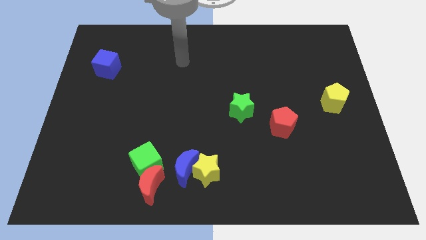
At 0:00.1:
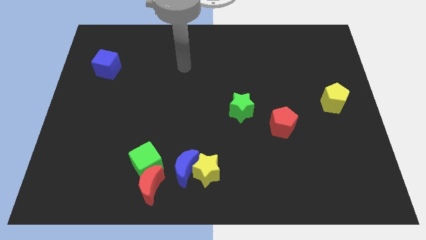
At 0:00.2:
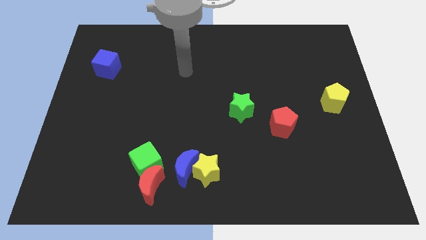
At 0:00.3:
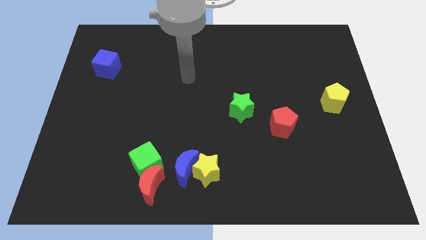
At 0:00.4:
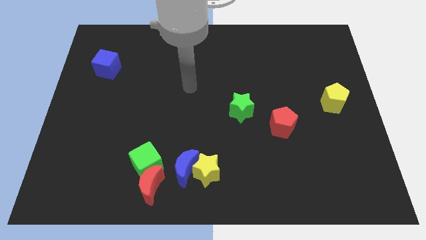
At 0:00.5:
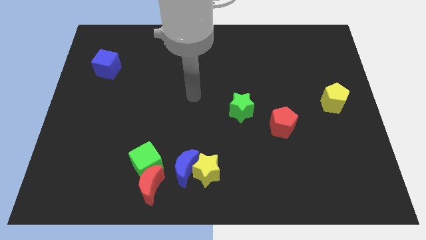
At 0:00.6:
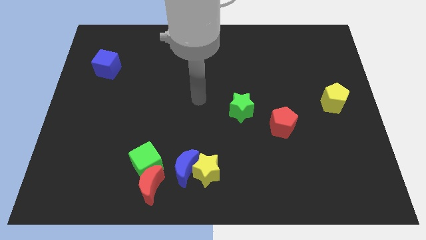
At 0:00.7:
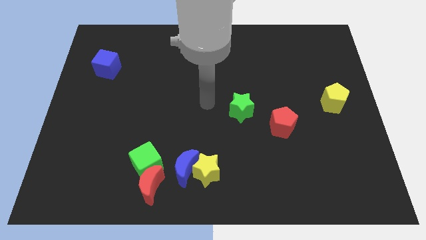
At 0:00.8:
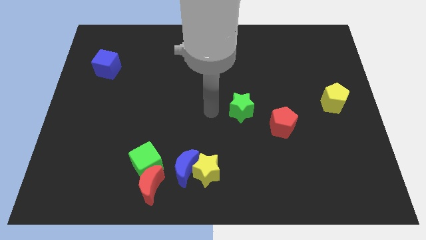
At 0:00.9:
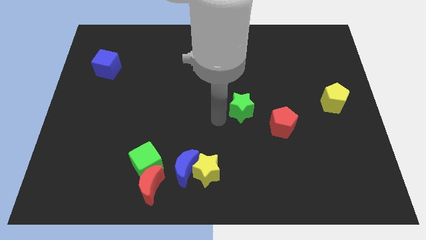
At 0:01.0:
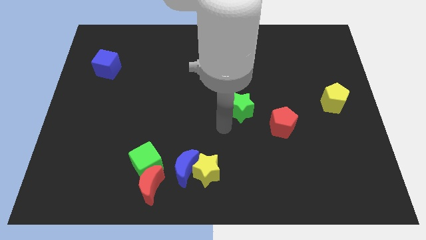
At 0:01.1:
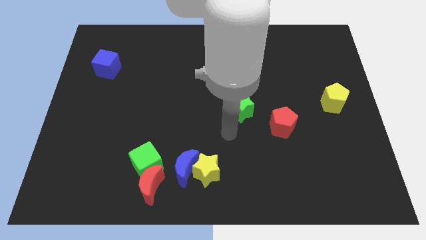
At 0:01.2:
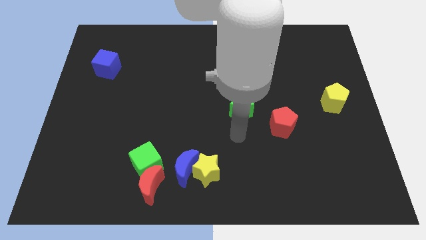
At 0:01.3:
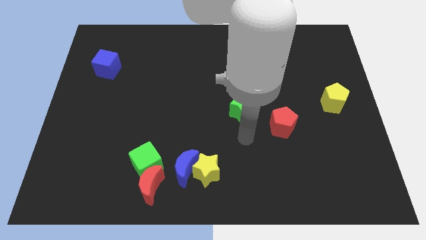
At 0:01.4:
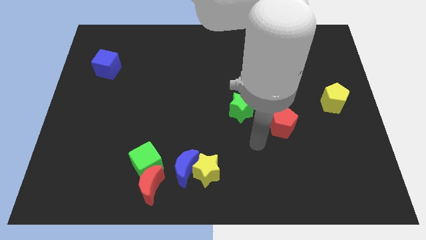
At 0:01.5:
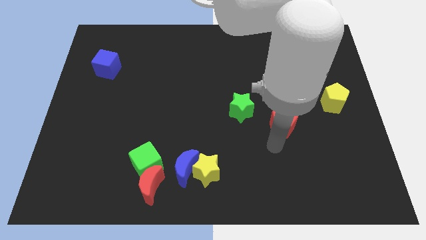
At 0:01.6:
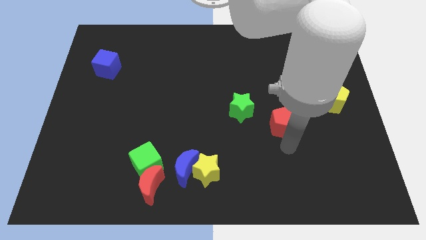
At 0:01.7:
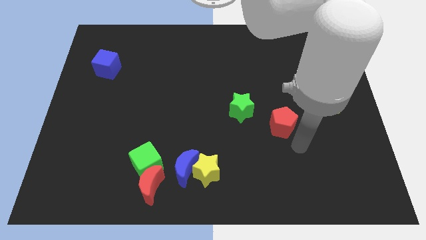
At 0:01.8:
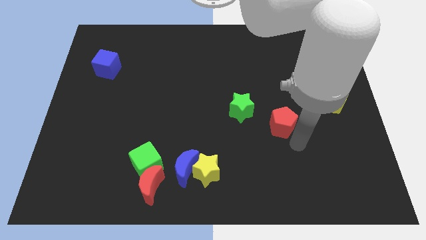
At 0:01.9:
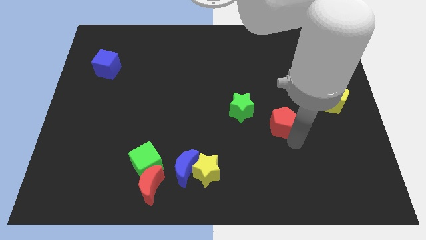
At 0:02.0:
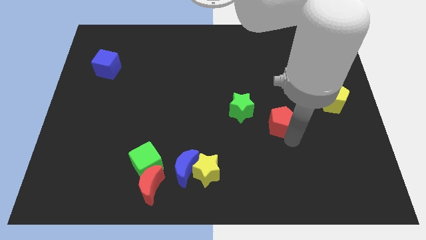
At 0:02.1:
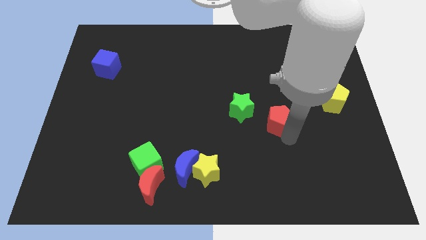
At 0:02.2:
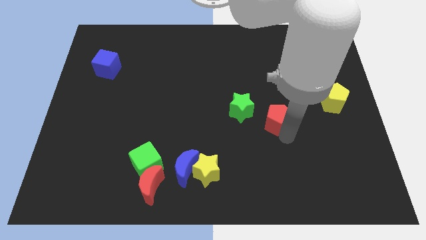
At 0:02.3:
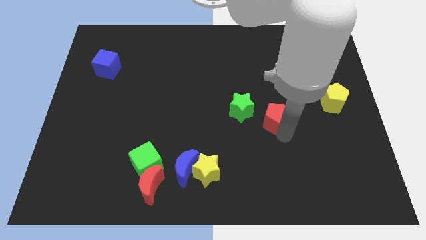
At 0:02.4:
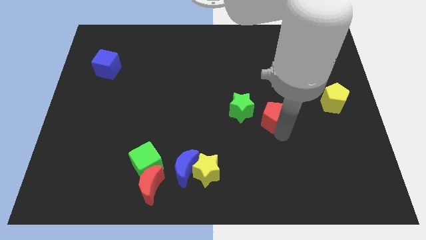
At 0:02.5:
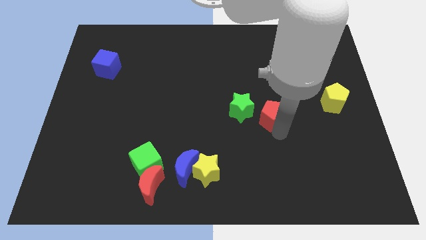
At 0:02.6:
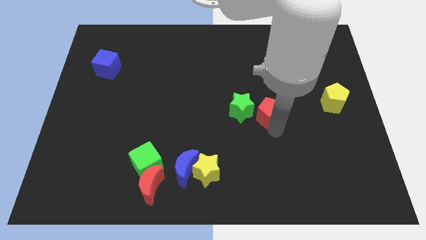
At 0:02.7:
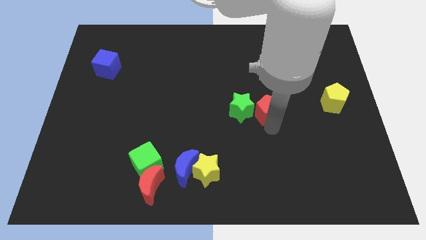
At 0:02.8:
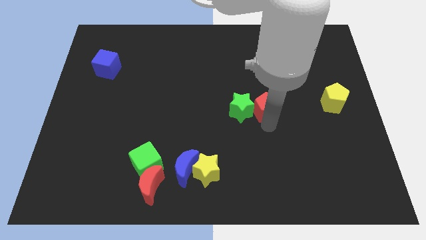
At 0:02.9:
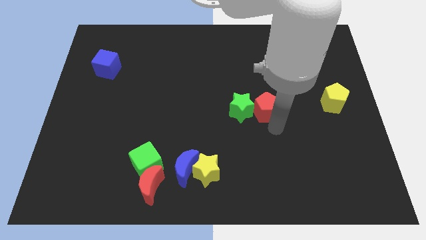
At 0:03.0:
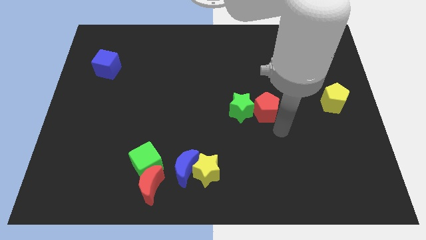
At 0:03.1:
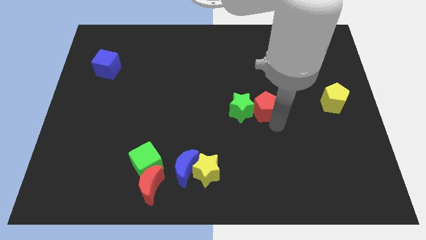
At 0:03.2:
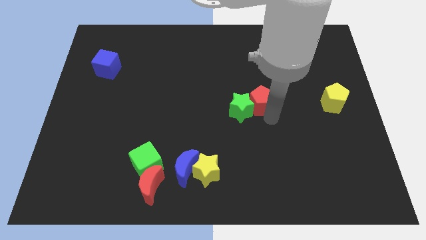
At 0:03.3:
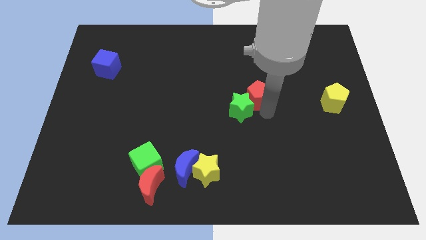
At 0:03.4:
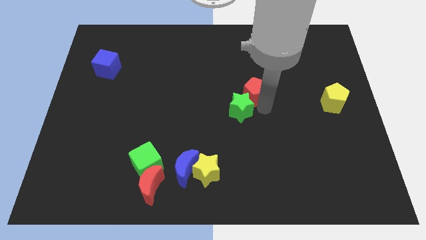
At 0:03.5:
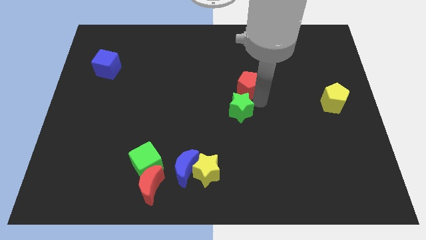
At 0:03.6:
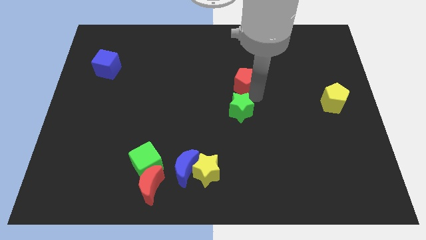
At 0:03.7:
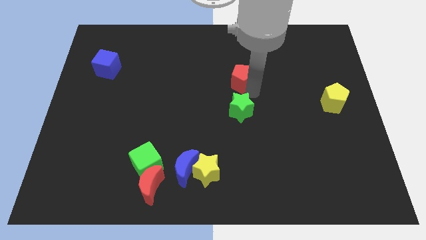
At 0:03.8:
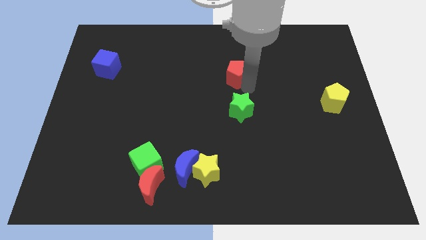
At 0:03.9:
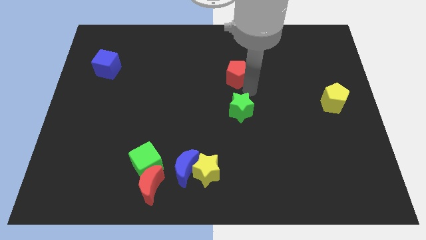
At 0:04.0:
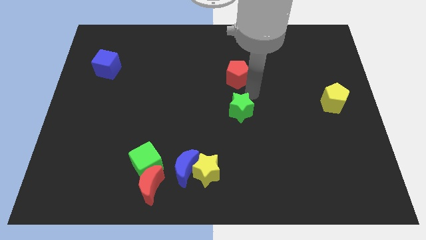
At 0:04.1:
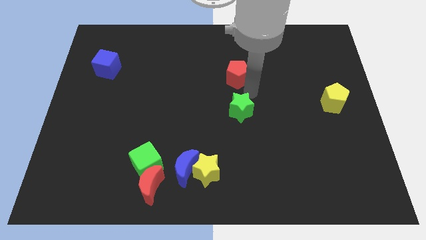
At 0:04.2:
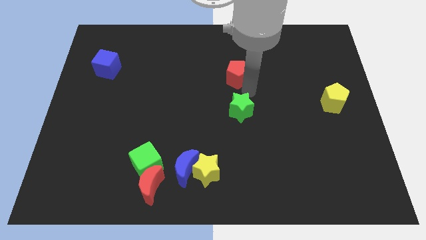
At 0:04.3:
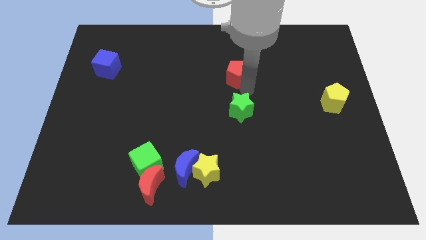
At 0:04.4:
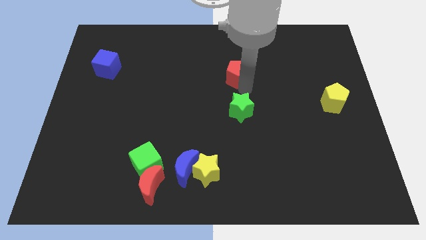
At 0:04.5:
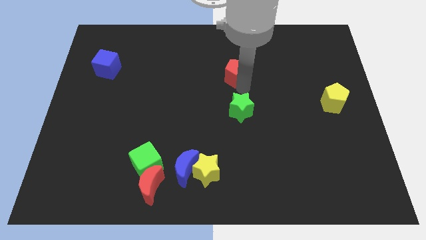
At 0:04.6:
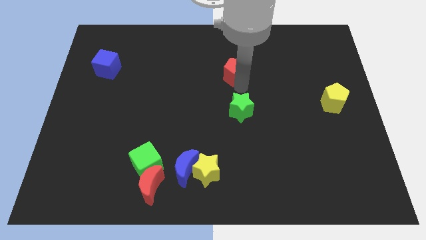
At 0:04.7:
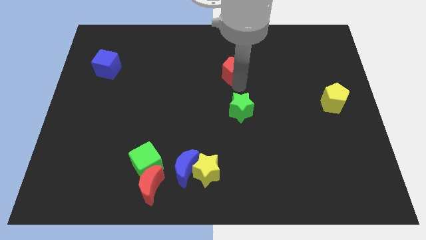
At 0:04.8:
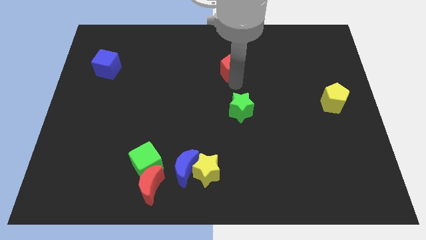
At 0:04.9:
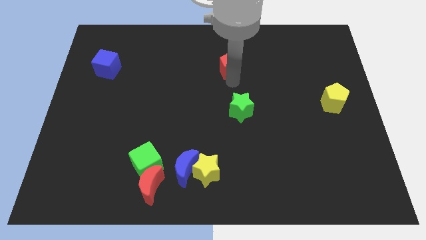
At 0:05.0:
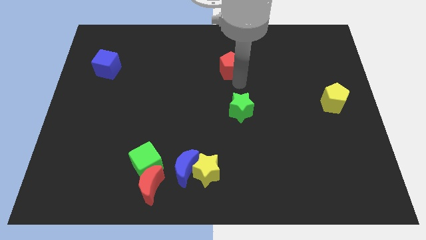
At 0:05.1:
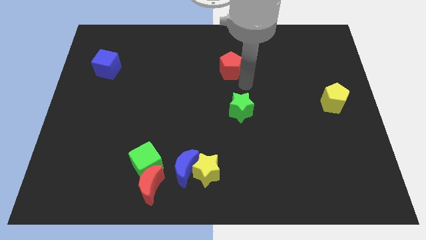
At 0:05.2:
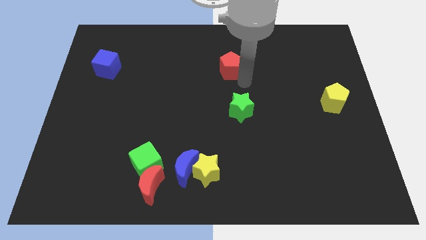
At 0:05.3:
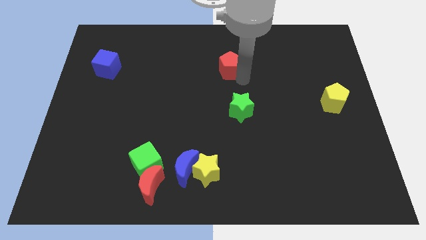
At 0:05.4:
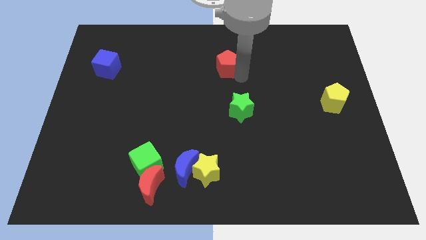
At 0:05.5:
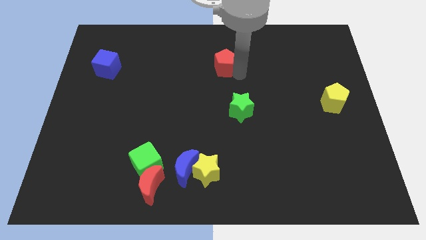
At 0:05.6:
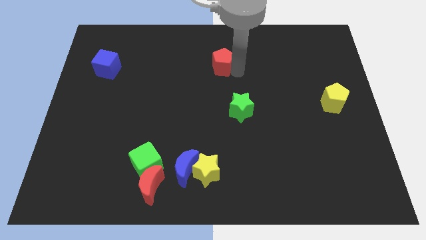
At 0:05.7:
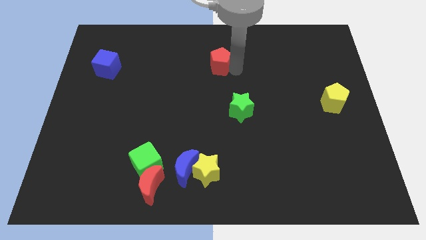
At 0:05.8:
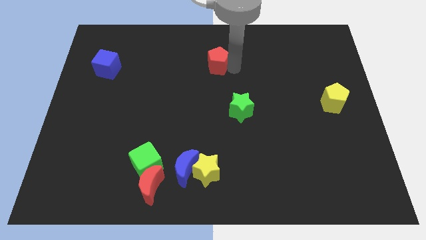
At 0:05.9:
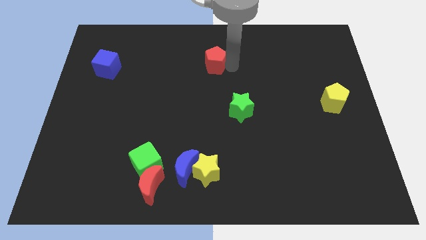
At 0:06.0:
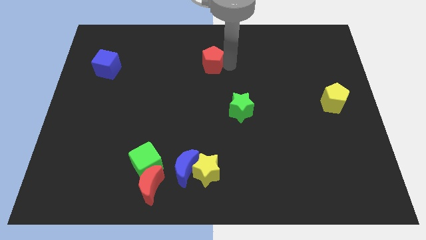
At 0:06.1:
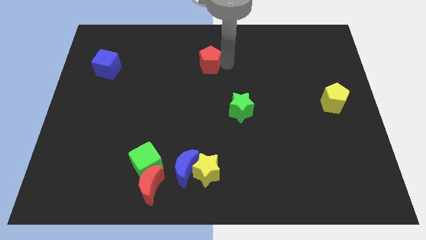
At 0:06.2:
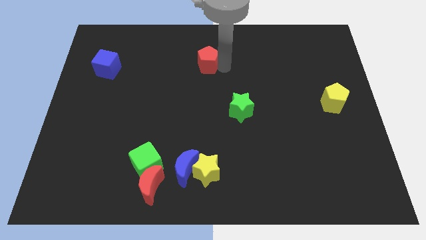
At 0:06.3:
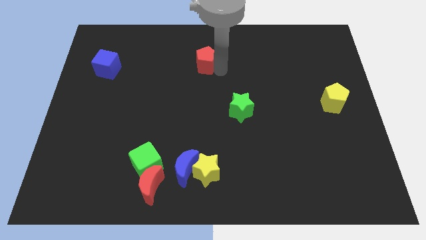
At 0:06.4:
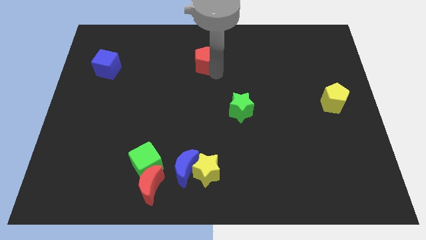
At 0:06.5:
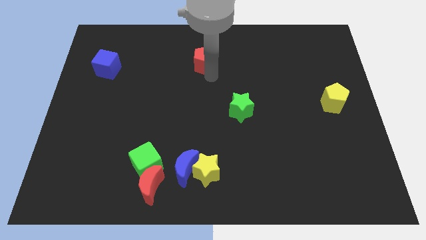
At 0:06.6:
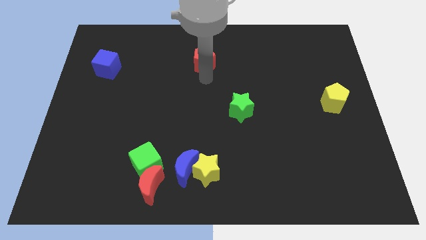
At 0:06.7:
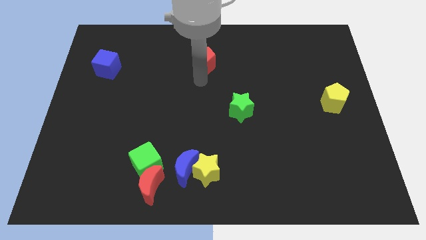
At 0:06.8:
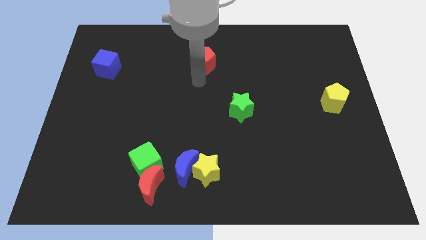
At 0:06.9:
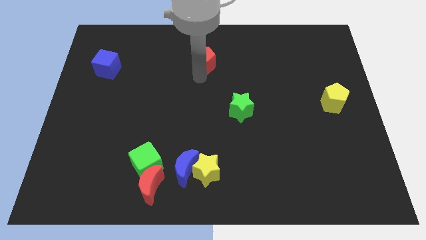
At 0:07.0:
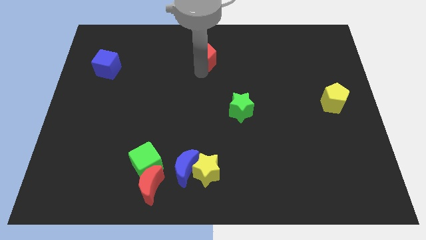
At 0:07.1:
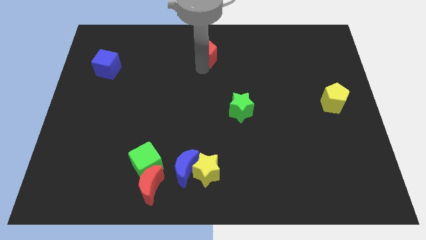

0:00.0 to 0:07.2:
move the red pentagon to the top side
